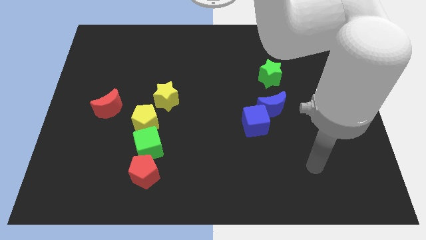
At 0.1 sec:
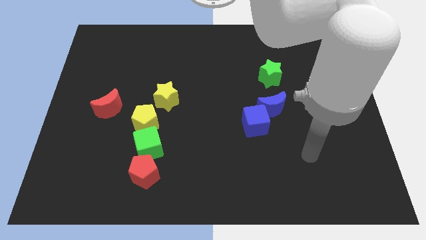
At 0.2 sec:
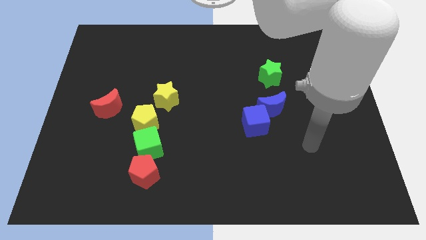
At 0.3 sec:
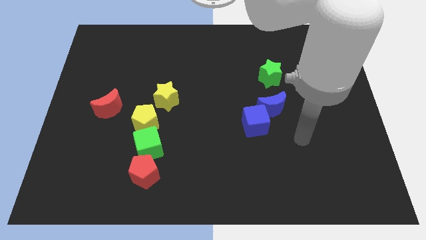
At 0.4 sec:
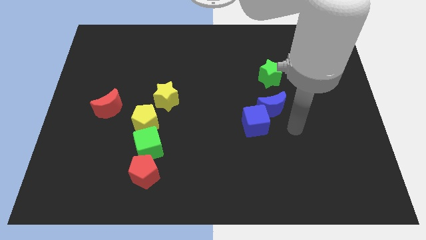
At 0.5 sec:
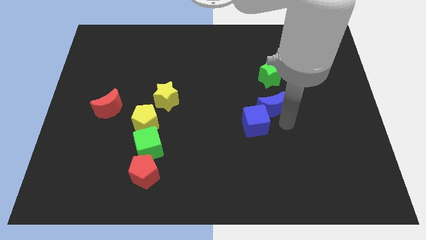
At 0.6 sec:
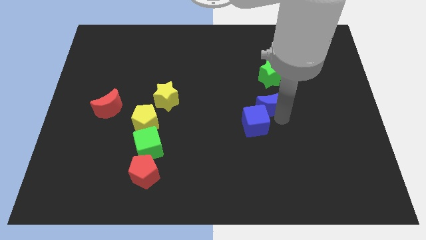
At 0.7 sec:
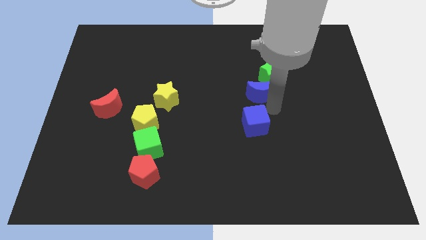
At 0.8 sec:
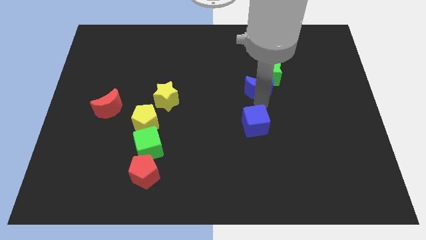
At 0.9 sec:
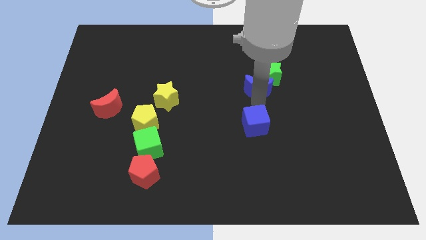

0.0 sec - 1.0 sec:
move the blue cube away from the blue moon

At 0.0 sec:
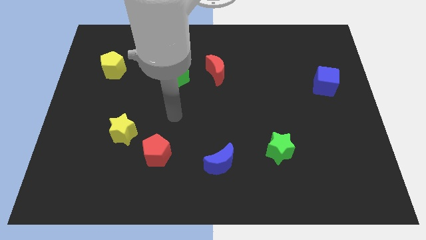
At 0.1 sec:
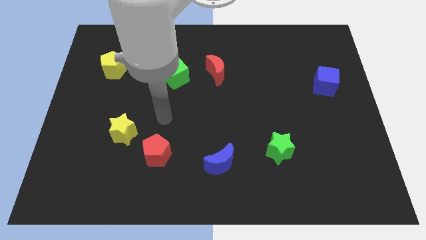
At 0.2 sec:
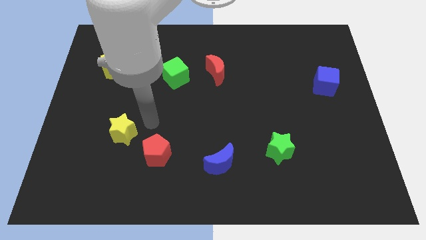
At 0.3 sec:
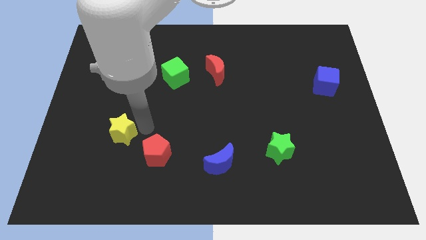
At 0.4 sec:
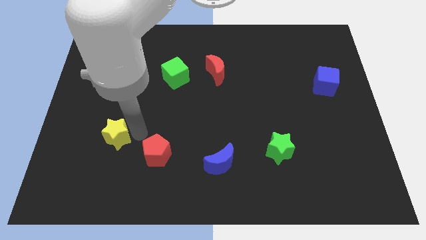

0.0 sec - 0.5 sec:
move the red pentagon away from the yellow star

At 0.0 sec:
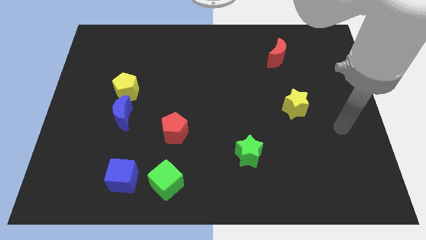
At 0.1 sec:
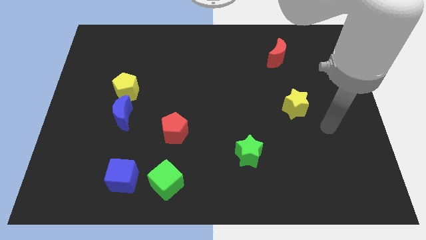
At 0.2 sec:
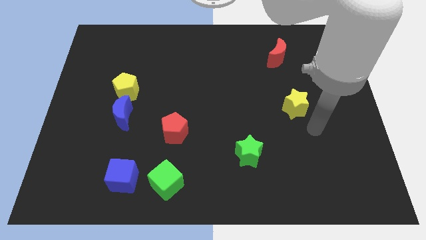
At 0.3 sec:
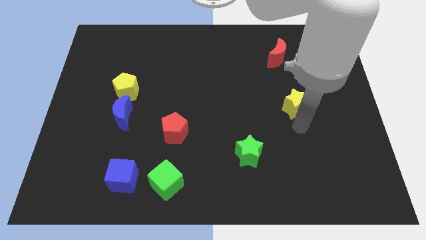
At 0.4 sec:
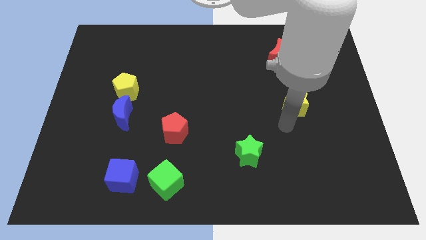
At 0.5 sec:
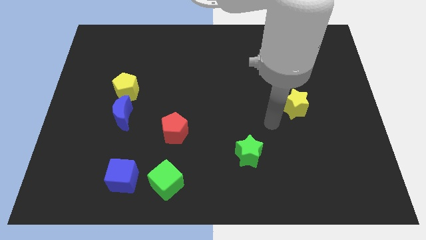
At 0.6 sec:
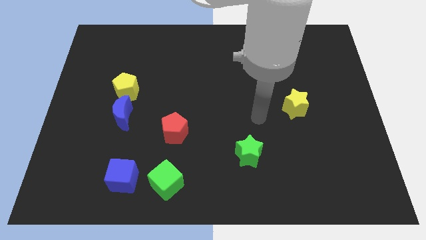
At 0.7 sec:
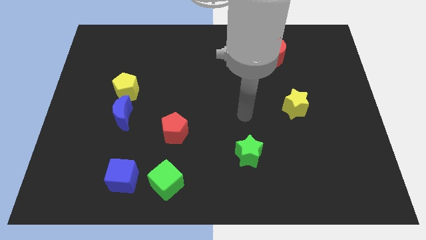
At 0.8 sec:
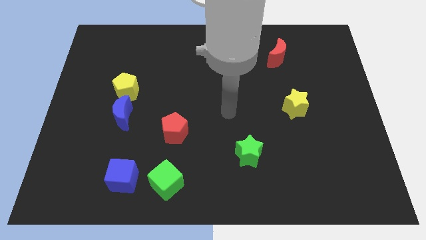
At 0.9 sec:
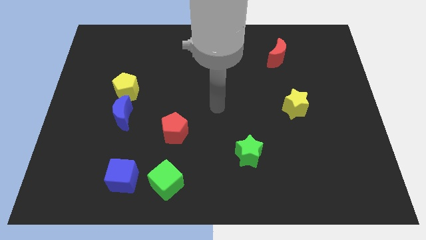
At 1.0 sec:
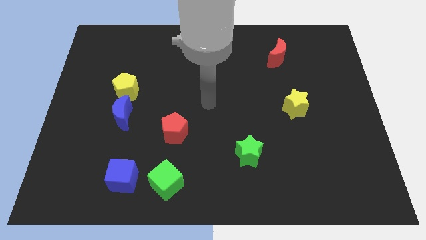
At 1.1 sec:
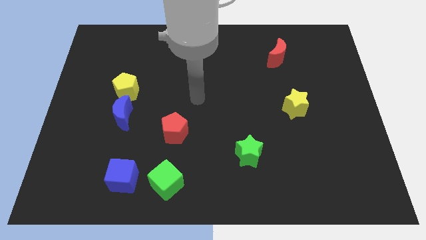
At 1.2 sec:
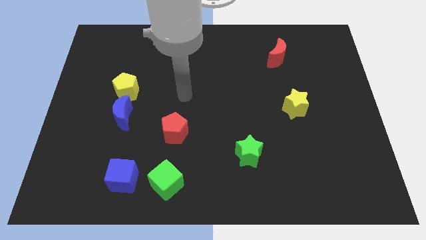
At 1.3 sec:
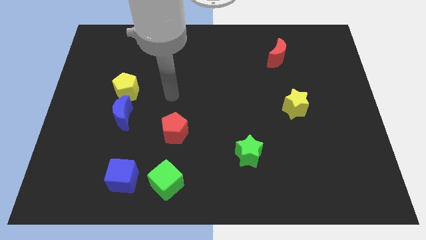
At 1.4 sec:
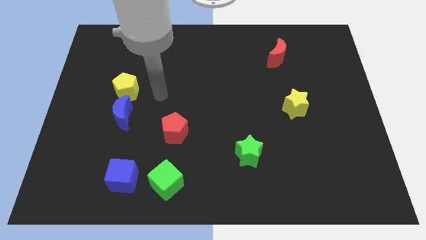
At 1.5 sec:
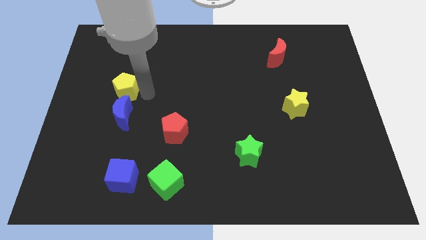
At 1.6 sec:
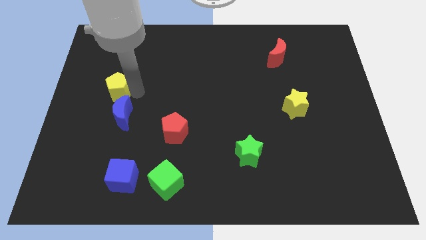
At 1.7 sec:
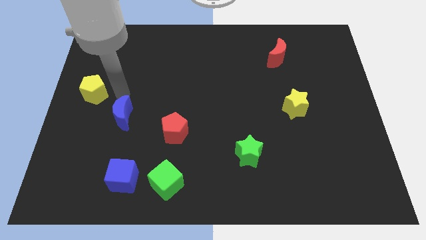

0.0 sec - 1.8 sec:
separate the blue moon from the yellow pentagon

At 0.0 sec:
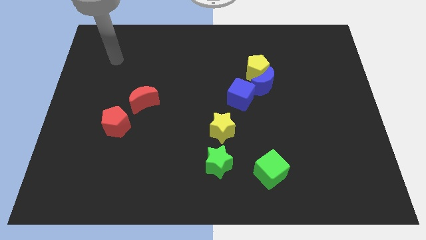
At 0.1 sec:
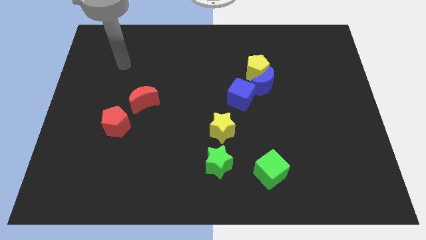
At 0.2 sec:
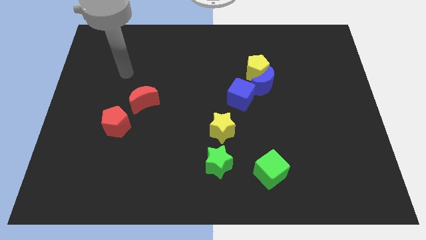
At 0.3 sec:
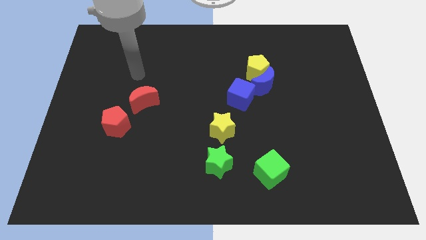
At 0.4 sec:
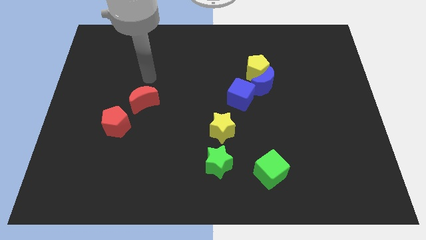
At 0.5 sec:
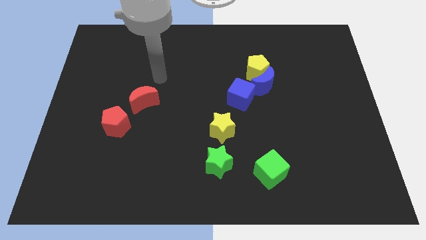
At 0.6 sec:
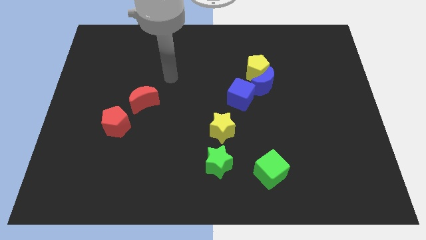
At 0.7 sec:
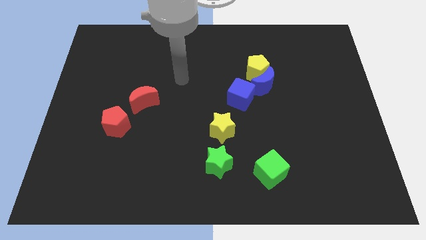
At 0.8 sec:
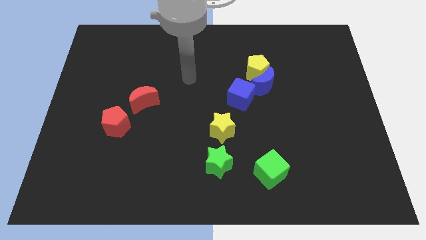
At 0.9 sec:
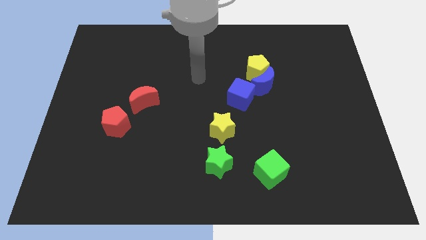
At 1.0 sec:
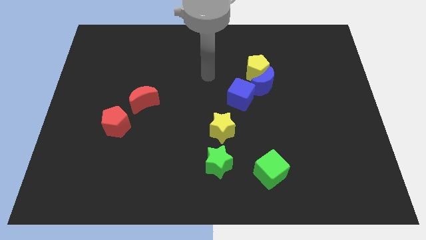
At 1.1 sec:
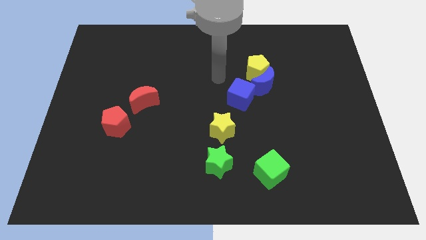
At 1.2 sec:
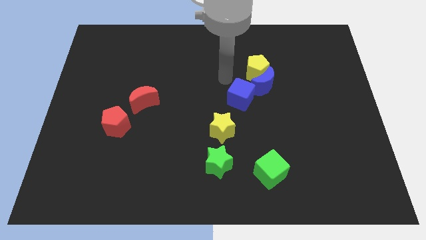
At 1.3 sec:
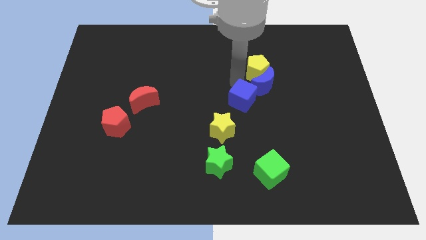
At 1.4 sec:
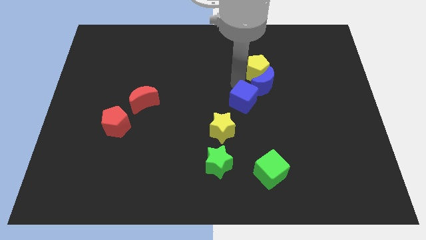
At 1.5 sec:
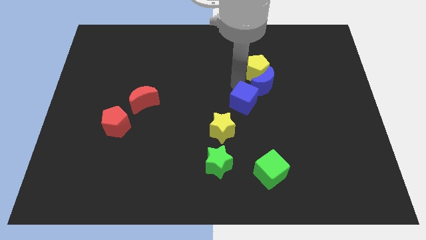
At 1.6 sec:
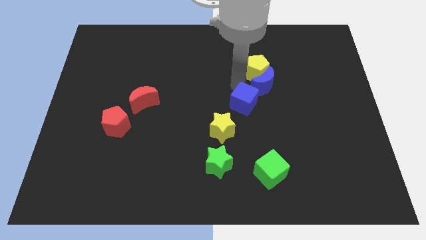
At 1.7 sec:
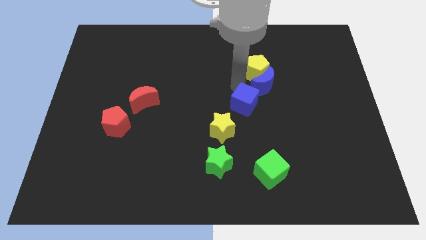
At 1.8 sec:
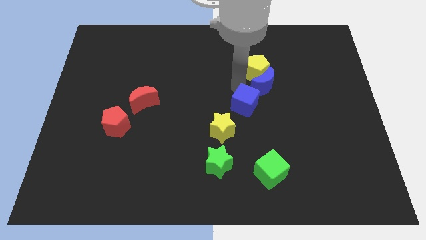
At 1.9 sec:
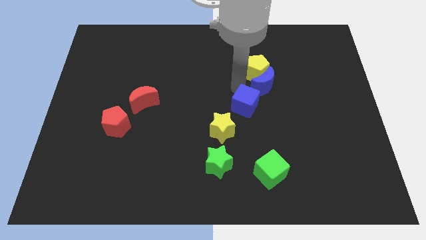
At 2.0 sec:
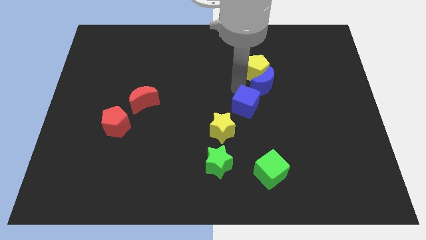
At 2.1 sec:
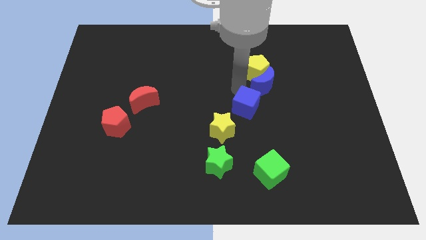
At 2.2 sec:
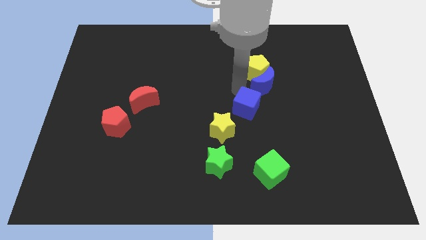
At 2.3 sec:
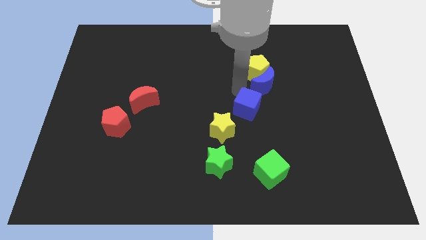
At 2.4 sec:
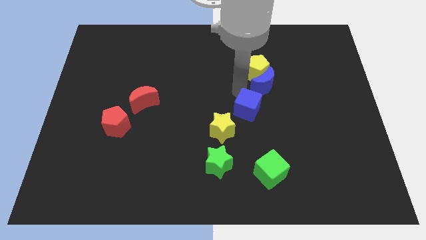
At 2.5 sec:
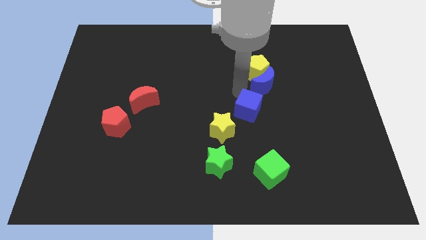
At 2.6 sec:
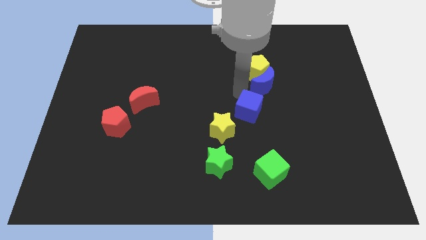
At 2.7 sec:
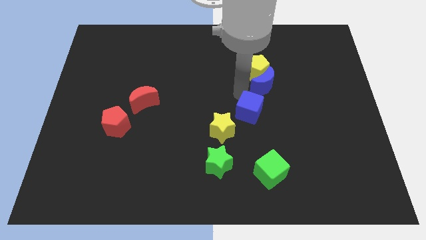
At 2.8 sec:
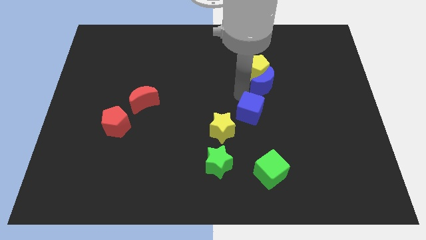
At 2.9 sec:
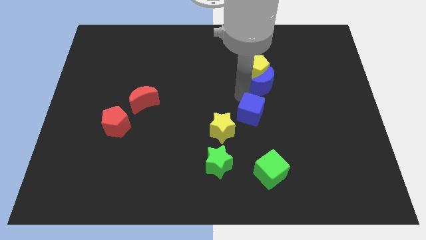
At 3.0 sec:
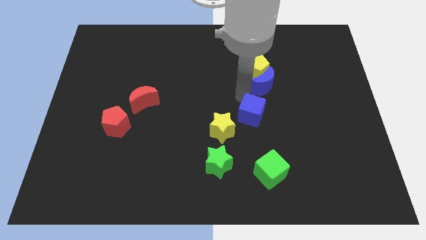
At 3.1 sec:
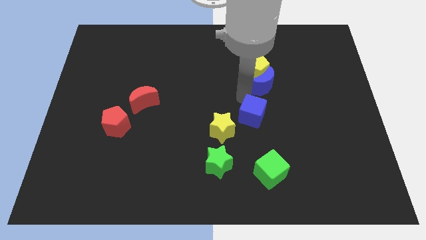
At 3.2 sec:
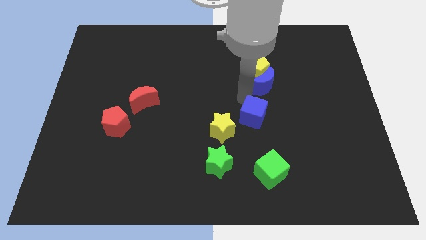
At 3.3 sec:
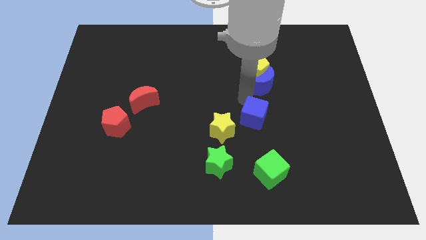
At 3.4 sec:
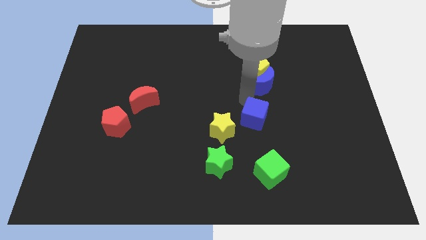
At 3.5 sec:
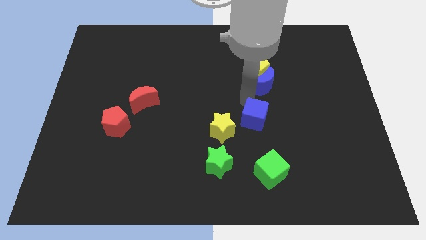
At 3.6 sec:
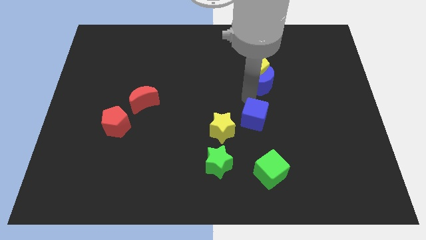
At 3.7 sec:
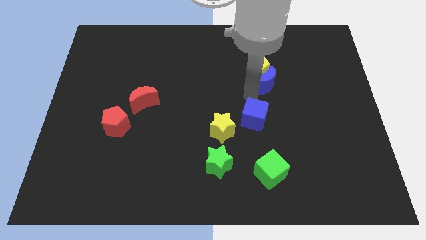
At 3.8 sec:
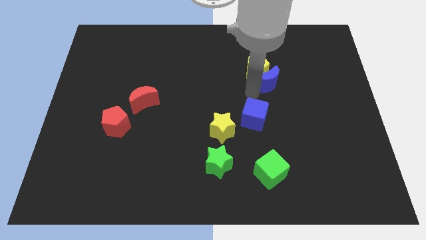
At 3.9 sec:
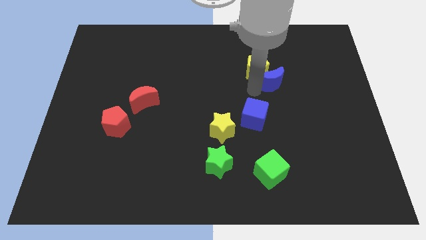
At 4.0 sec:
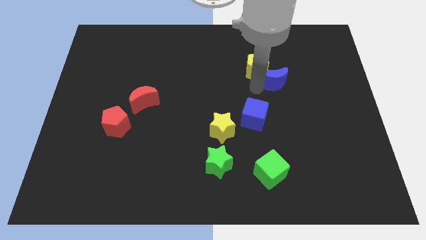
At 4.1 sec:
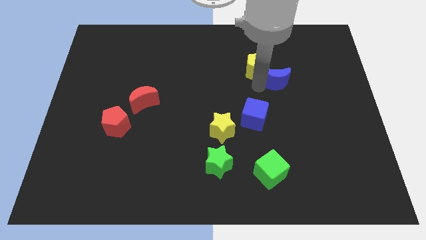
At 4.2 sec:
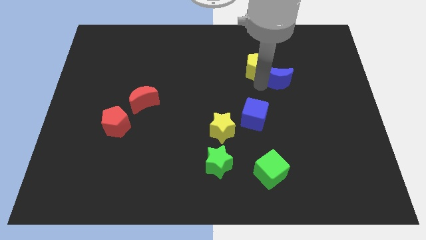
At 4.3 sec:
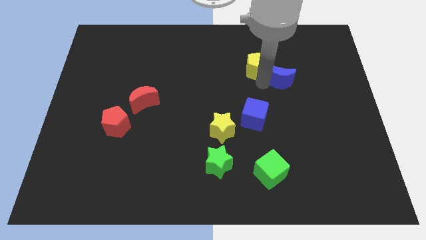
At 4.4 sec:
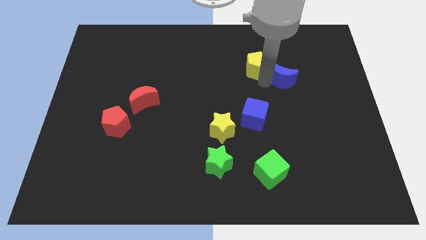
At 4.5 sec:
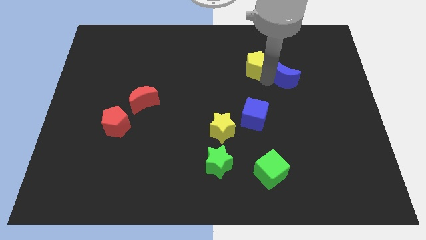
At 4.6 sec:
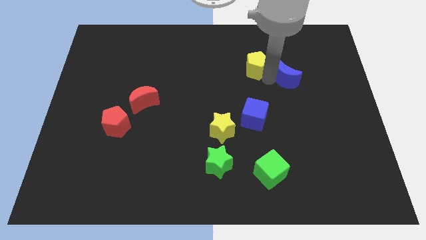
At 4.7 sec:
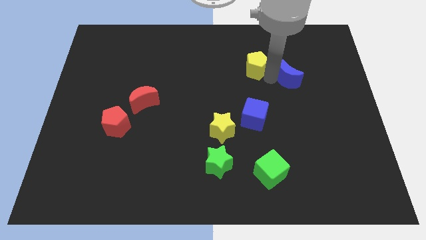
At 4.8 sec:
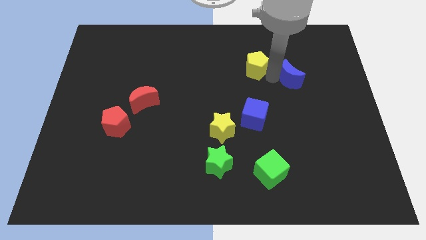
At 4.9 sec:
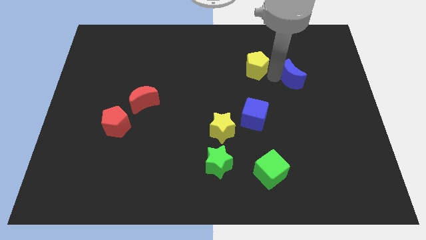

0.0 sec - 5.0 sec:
separate the blue moon from the yellow pentagon and blue cube

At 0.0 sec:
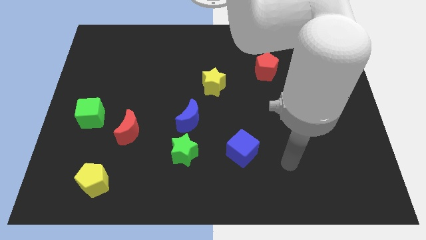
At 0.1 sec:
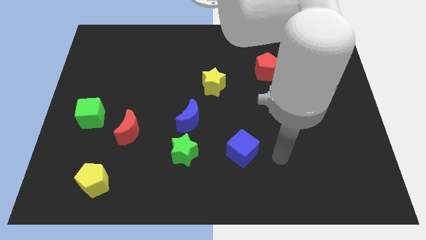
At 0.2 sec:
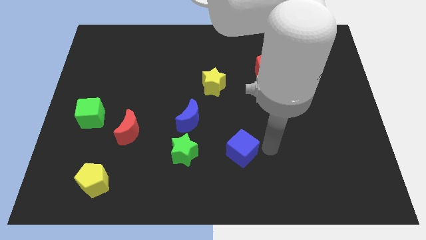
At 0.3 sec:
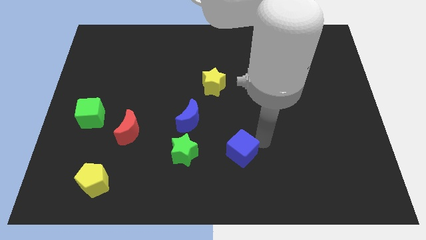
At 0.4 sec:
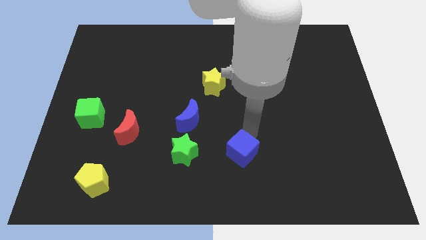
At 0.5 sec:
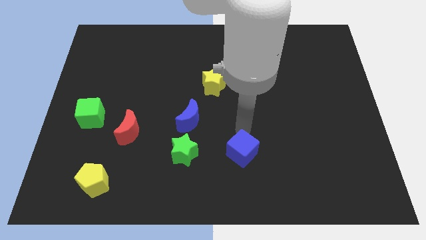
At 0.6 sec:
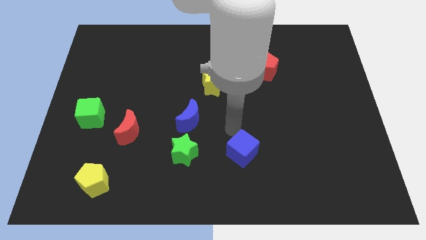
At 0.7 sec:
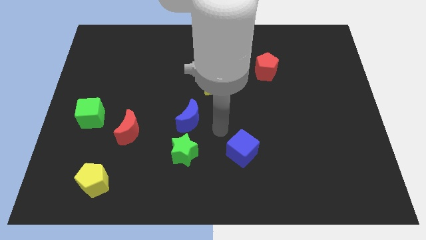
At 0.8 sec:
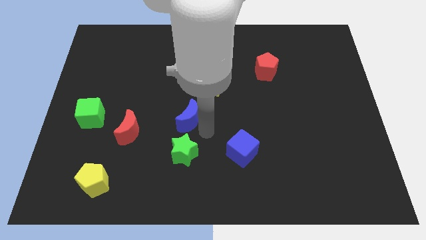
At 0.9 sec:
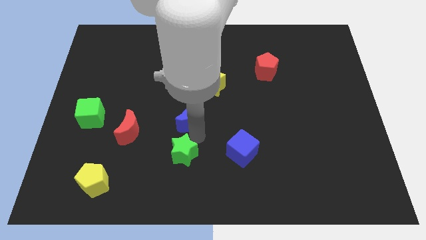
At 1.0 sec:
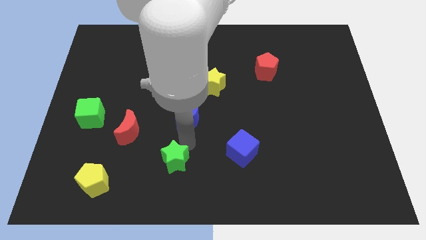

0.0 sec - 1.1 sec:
separate the blue moon from the green star
